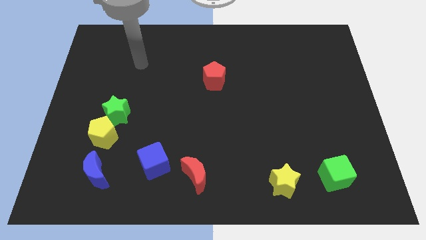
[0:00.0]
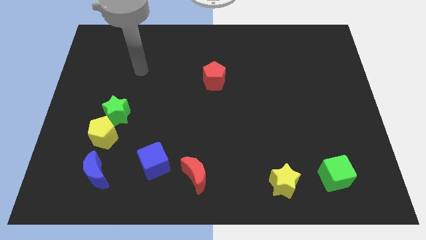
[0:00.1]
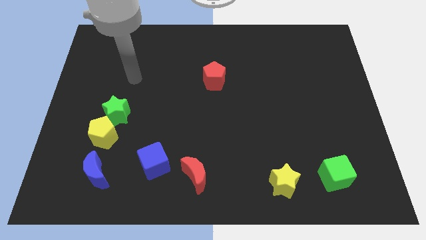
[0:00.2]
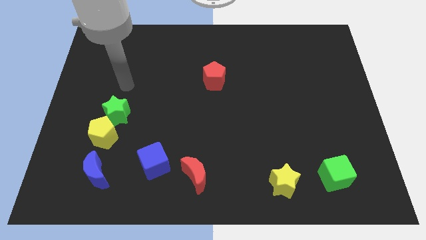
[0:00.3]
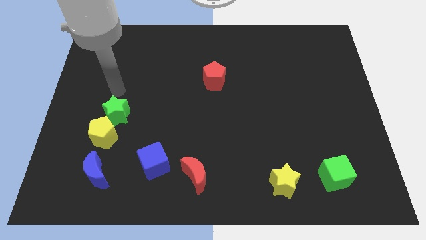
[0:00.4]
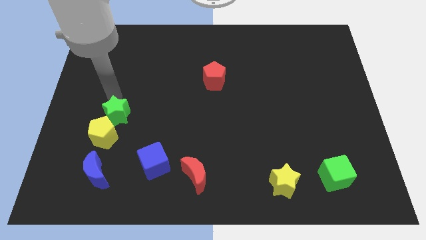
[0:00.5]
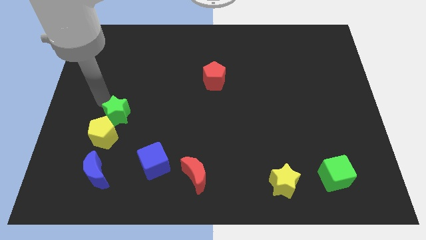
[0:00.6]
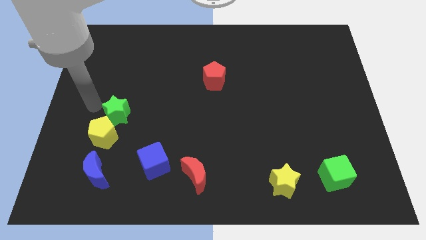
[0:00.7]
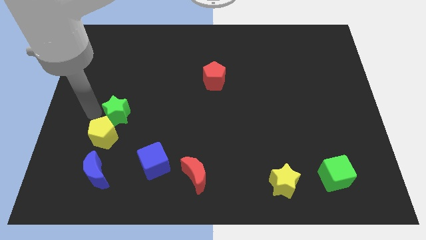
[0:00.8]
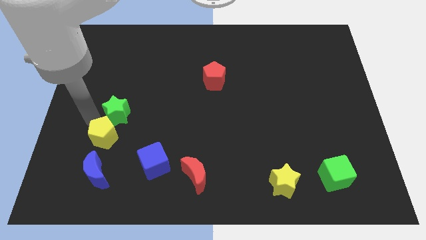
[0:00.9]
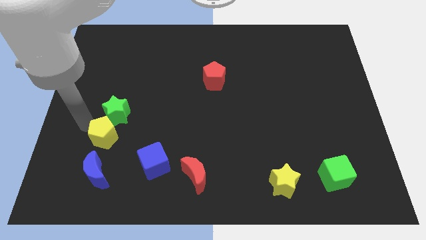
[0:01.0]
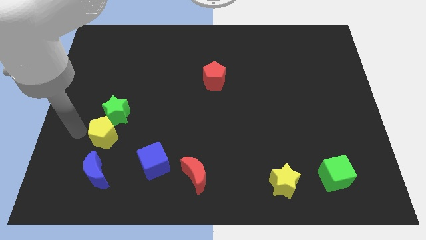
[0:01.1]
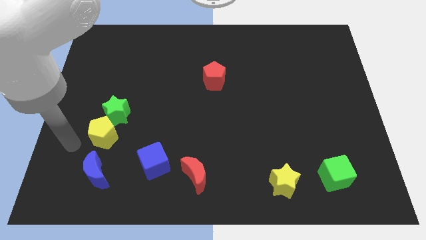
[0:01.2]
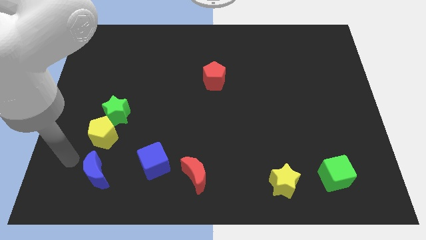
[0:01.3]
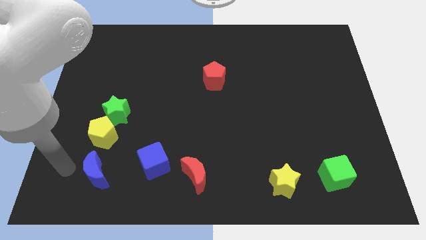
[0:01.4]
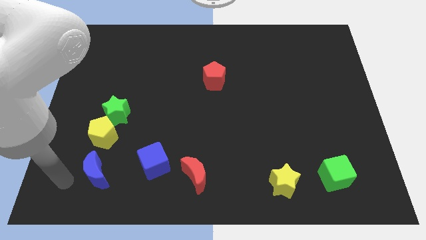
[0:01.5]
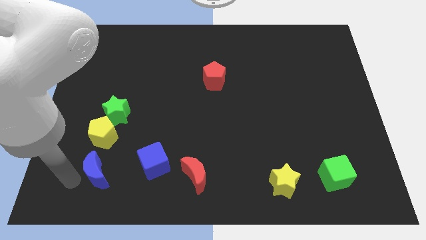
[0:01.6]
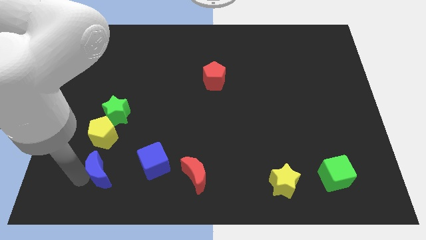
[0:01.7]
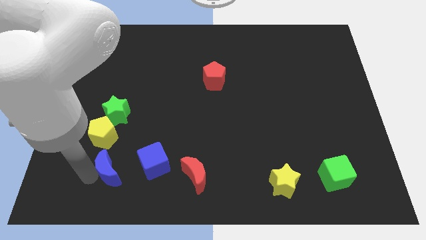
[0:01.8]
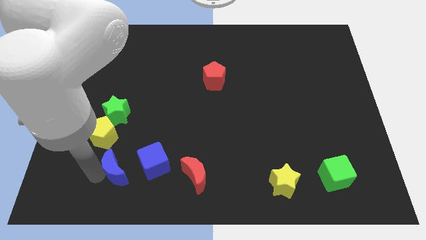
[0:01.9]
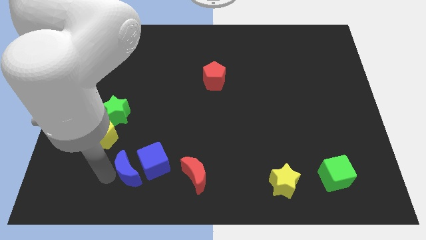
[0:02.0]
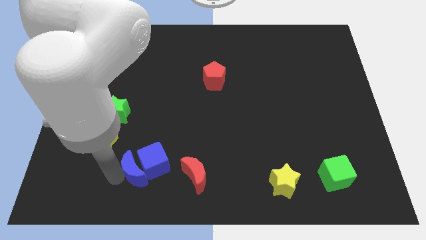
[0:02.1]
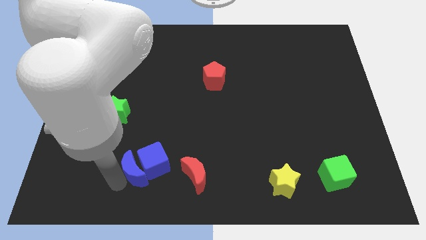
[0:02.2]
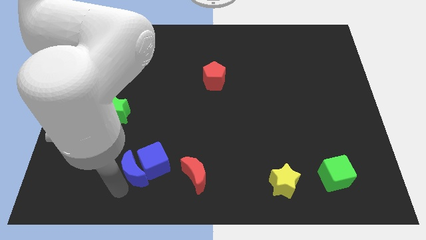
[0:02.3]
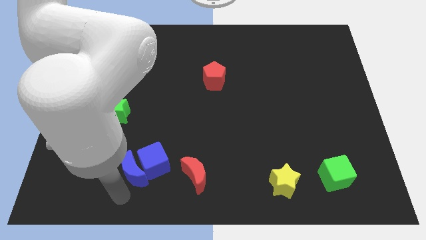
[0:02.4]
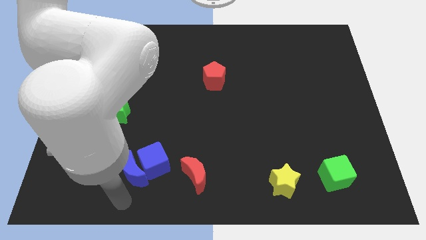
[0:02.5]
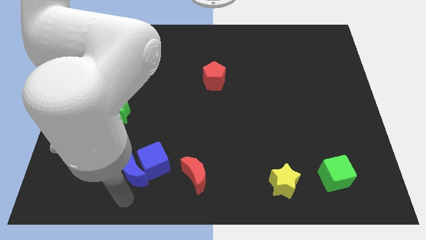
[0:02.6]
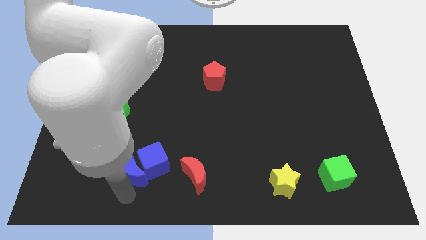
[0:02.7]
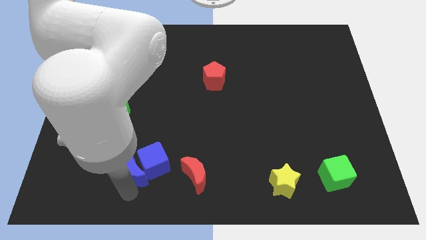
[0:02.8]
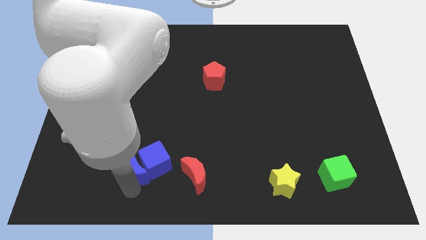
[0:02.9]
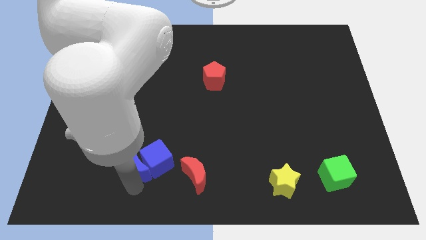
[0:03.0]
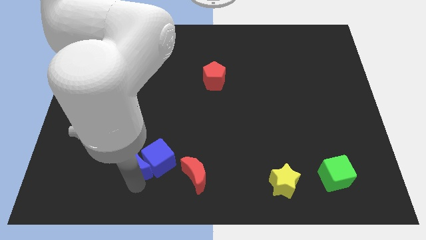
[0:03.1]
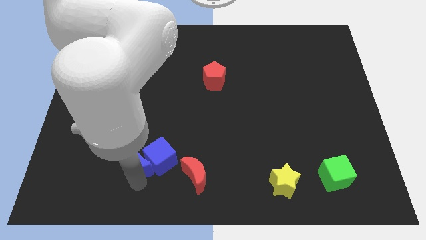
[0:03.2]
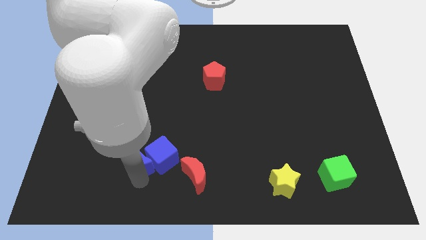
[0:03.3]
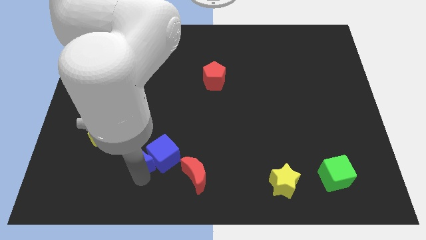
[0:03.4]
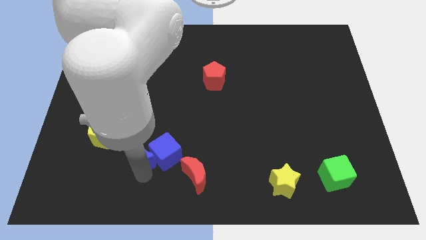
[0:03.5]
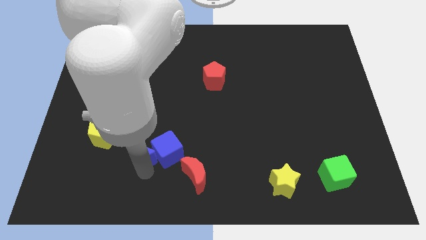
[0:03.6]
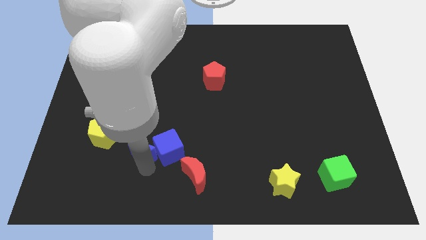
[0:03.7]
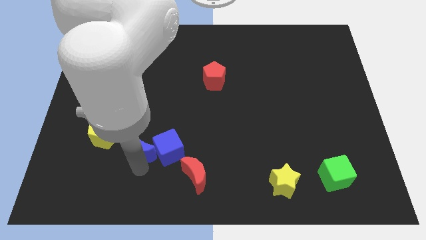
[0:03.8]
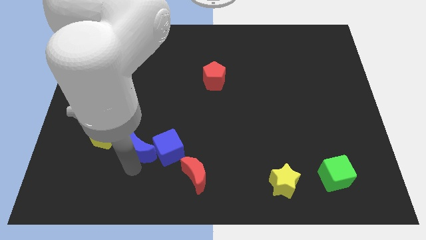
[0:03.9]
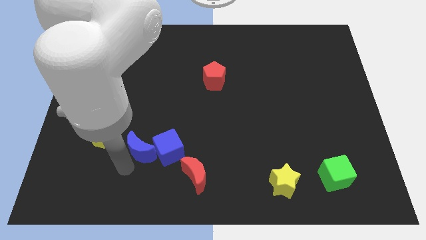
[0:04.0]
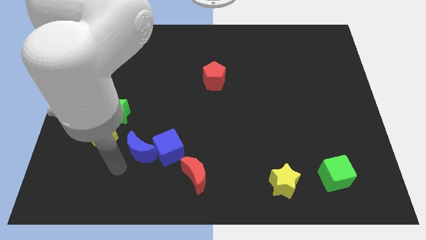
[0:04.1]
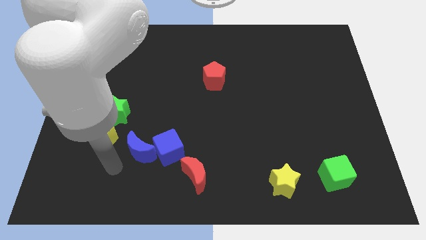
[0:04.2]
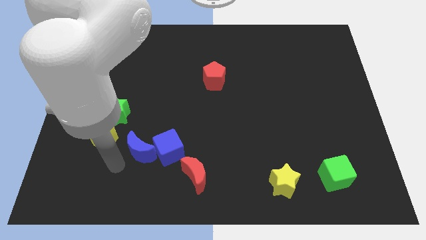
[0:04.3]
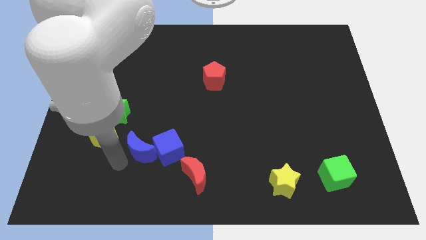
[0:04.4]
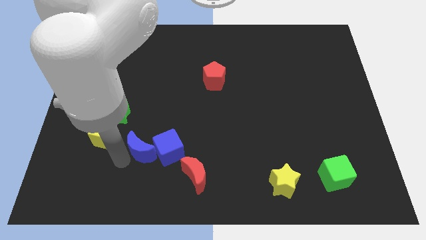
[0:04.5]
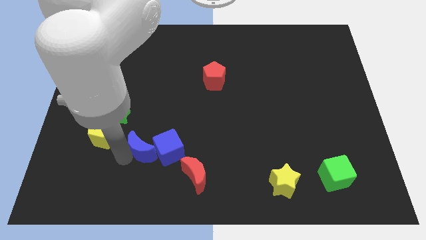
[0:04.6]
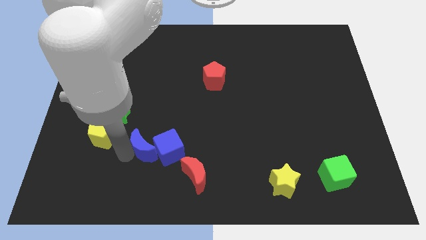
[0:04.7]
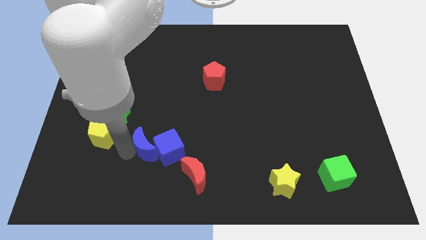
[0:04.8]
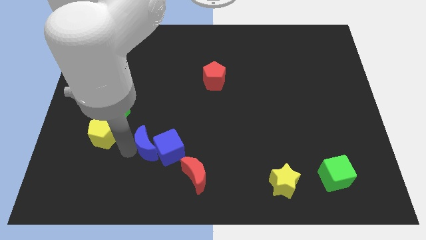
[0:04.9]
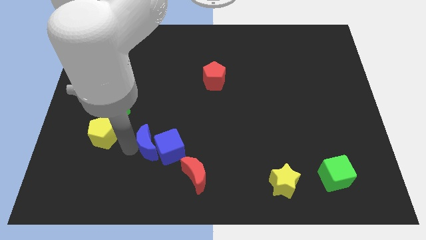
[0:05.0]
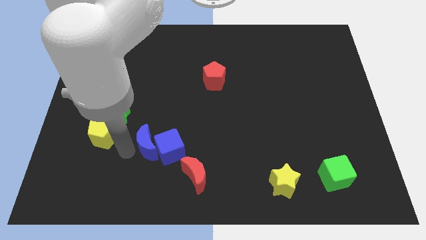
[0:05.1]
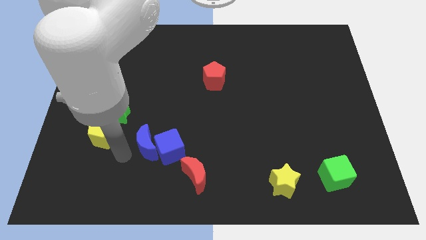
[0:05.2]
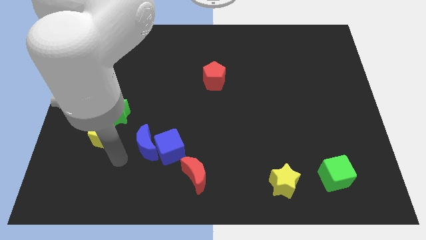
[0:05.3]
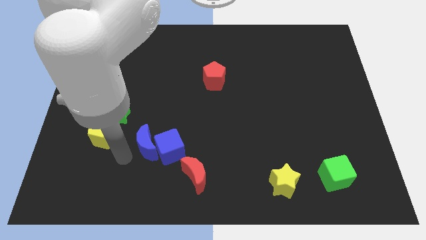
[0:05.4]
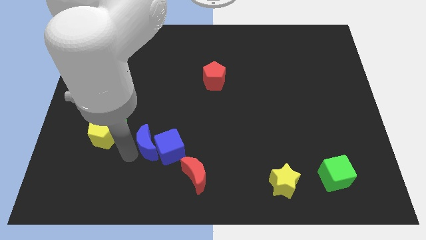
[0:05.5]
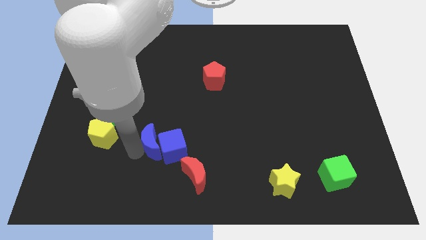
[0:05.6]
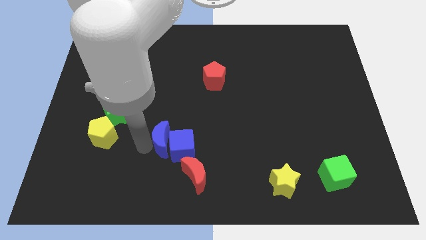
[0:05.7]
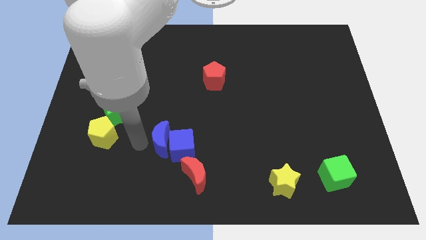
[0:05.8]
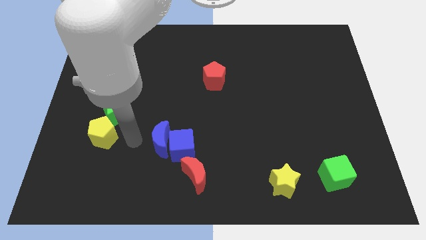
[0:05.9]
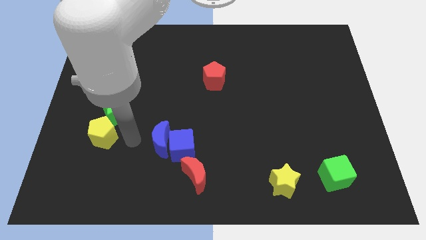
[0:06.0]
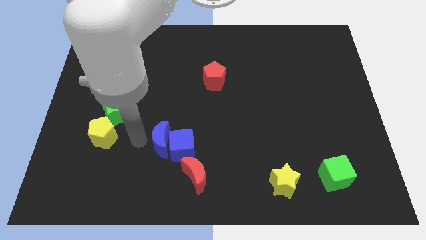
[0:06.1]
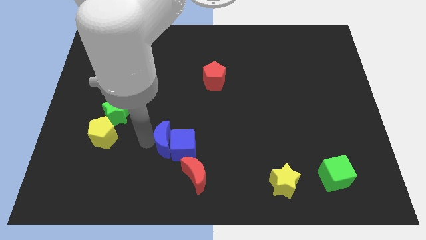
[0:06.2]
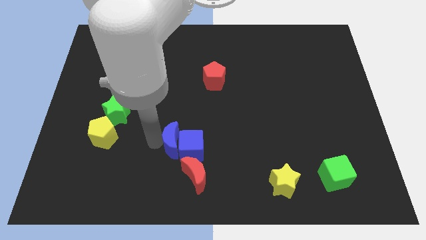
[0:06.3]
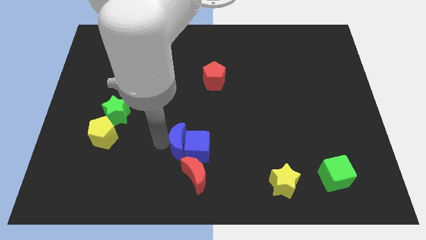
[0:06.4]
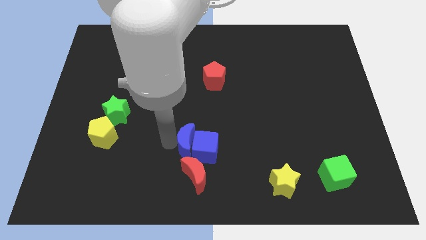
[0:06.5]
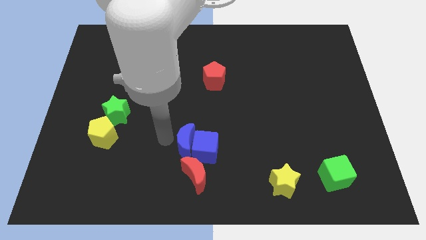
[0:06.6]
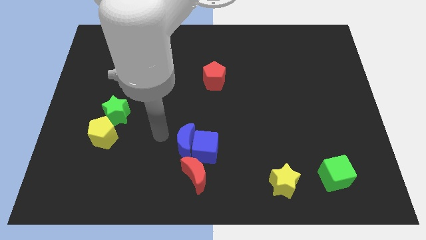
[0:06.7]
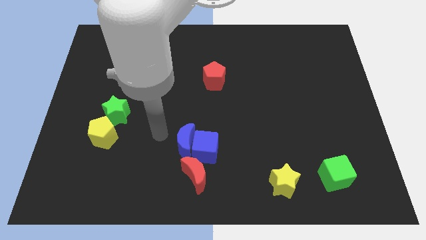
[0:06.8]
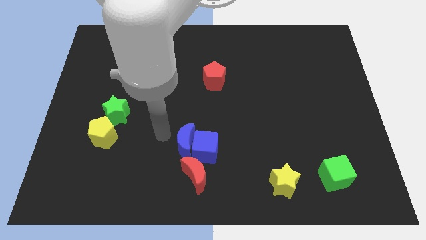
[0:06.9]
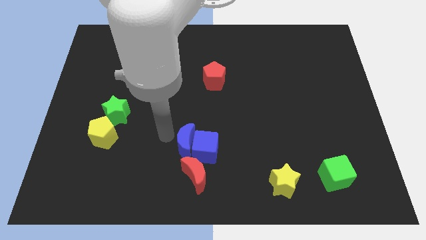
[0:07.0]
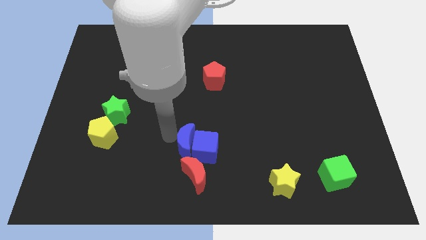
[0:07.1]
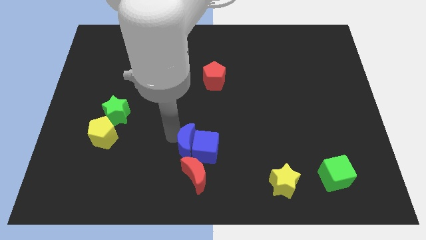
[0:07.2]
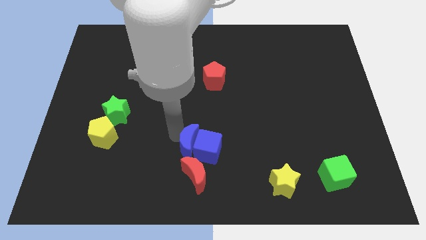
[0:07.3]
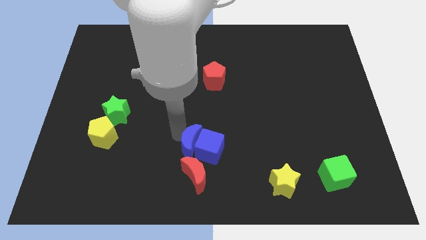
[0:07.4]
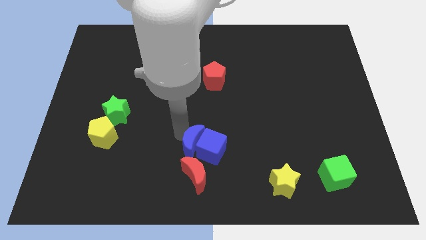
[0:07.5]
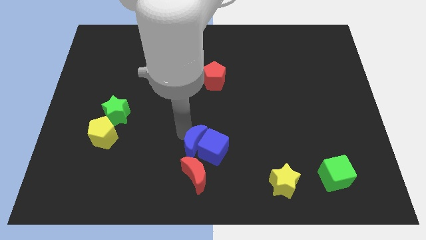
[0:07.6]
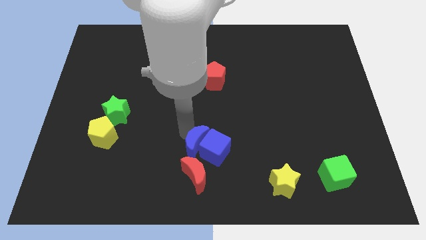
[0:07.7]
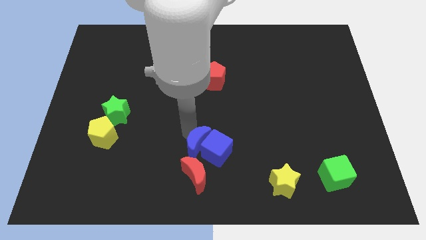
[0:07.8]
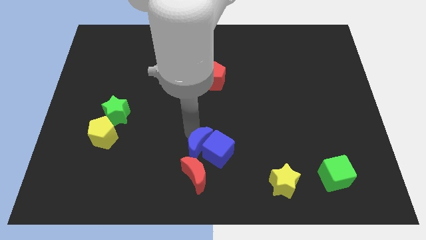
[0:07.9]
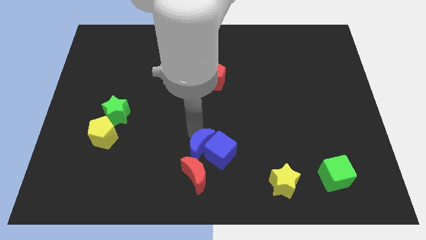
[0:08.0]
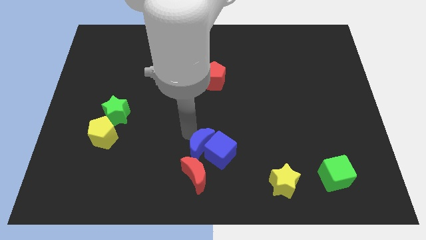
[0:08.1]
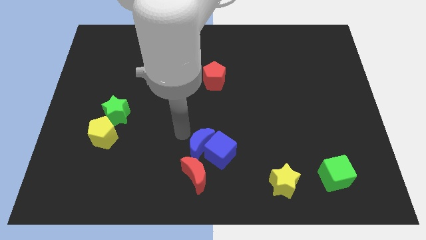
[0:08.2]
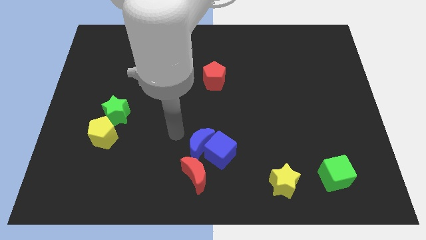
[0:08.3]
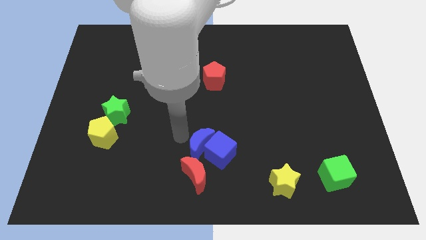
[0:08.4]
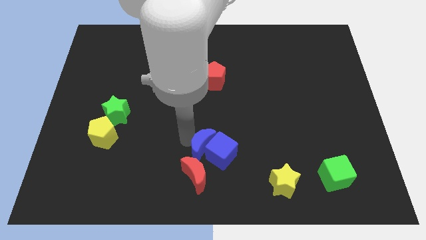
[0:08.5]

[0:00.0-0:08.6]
move the blue moon right
